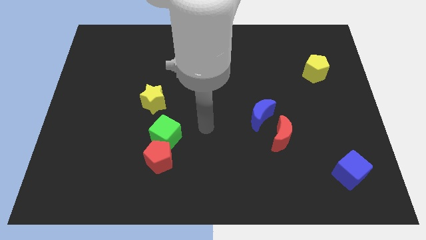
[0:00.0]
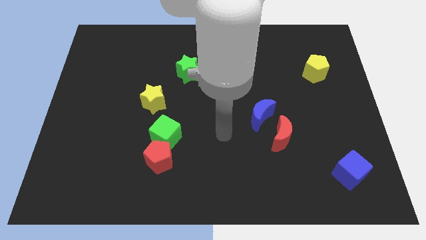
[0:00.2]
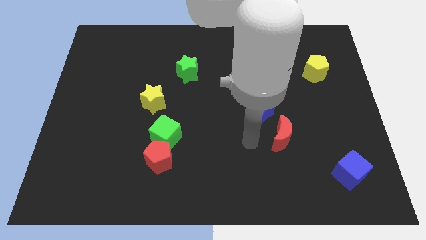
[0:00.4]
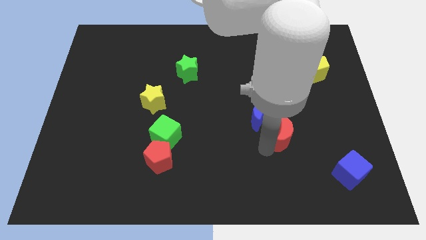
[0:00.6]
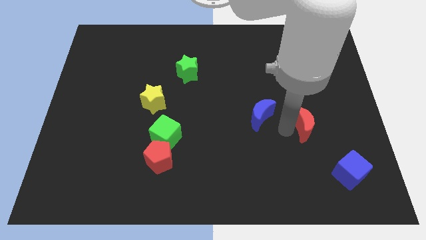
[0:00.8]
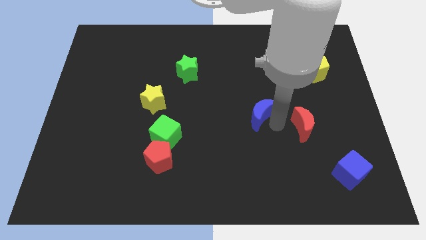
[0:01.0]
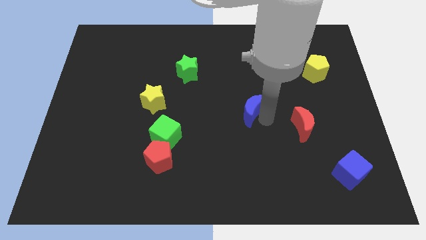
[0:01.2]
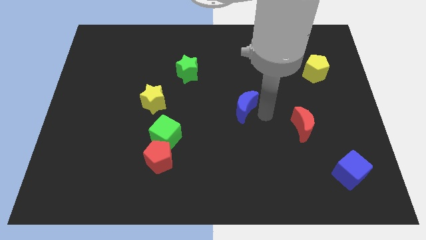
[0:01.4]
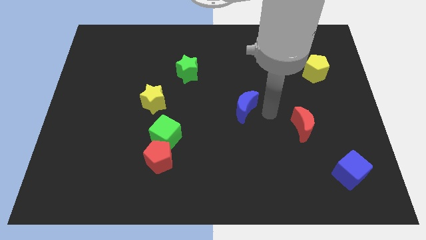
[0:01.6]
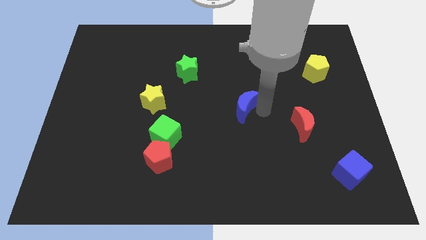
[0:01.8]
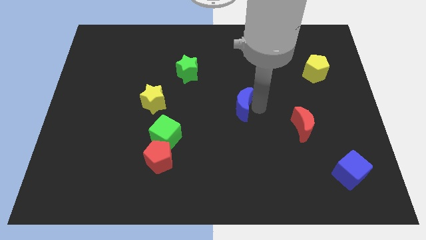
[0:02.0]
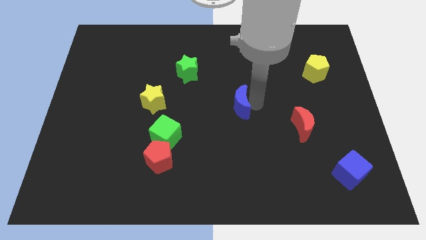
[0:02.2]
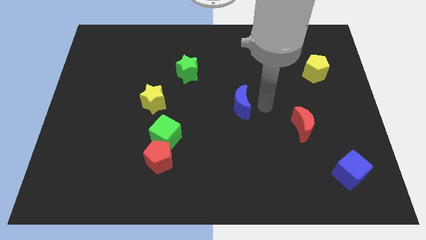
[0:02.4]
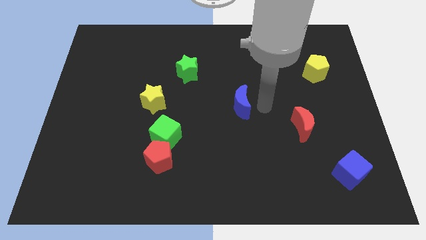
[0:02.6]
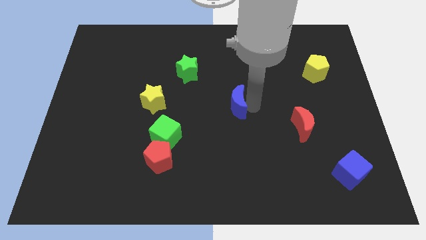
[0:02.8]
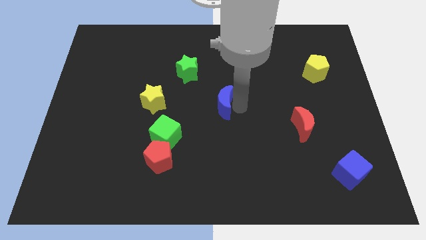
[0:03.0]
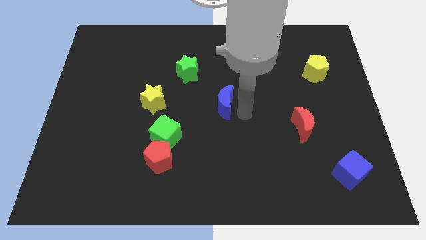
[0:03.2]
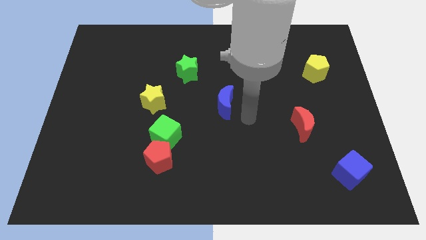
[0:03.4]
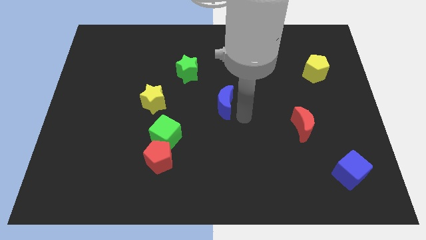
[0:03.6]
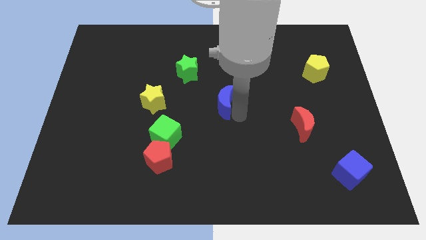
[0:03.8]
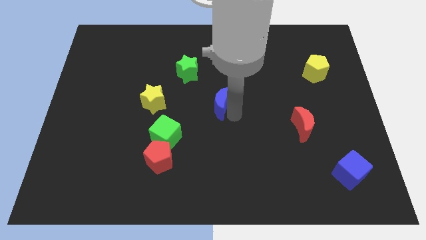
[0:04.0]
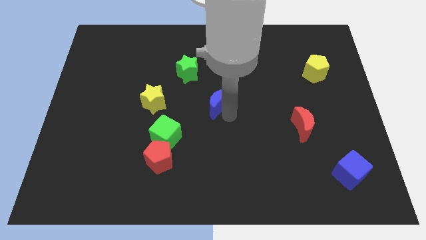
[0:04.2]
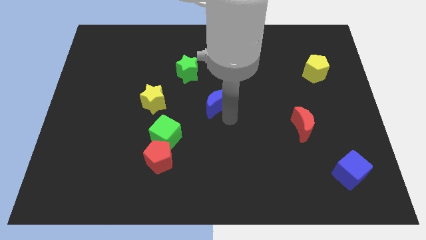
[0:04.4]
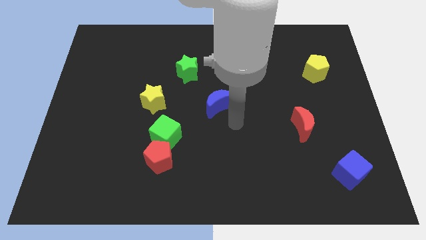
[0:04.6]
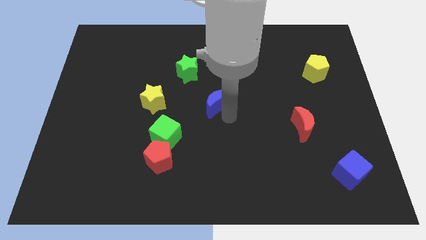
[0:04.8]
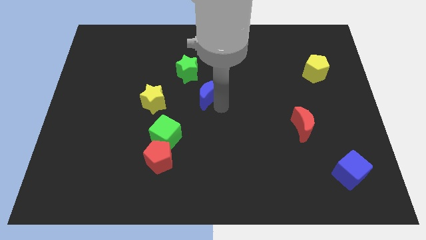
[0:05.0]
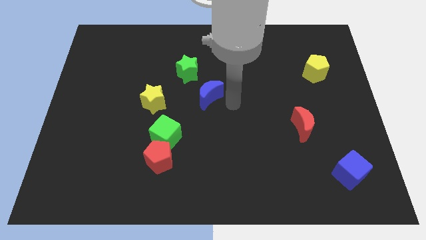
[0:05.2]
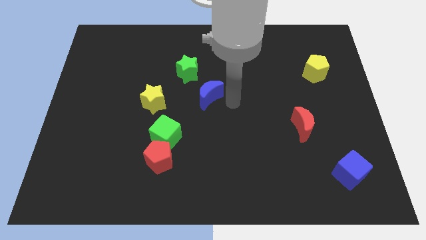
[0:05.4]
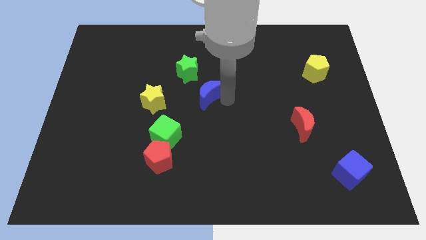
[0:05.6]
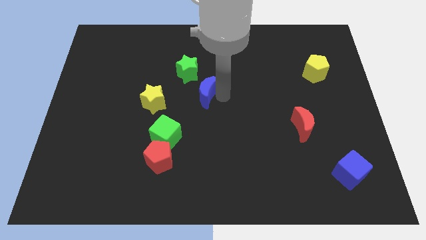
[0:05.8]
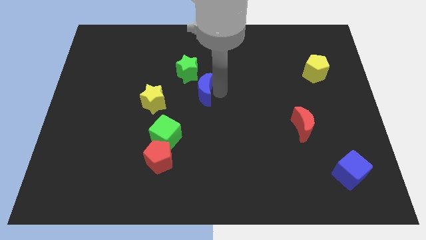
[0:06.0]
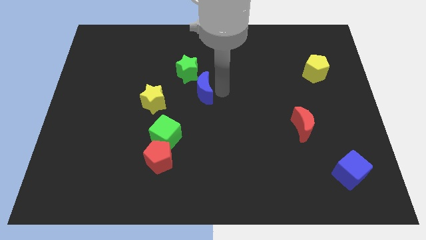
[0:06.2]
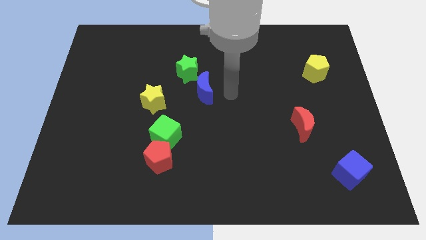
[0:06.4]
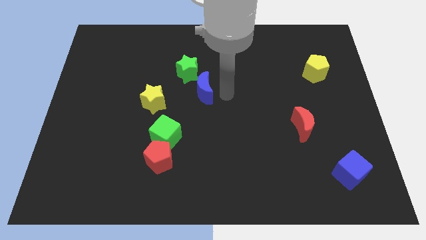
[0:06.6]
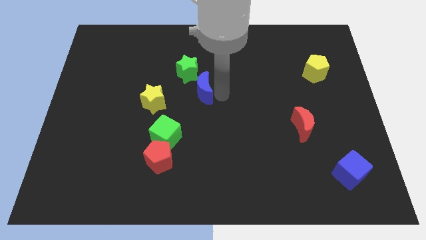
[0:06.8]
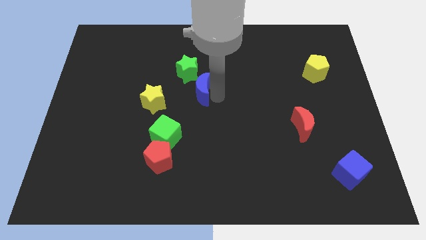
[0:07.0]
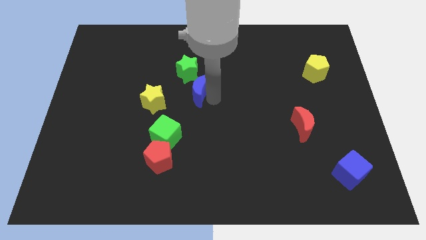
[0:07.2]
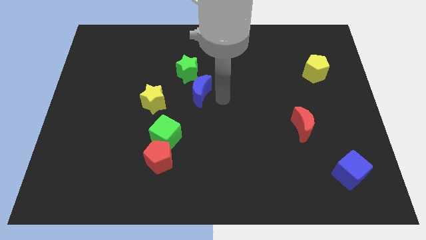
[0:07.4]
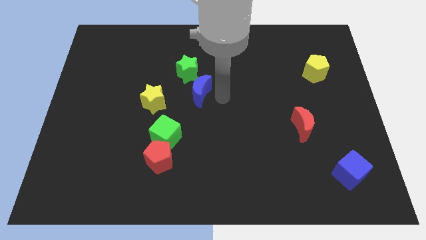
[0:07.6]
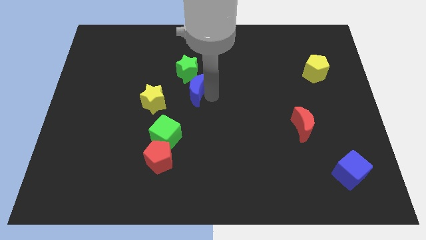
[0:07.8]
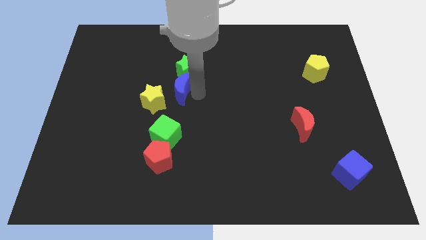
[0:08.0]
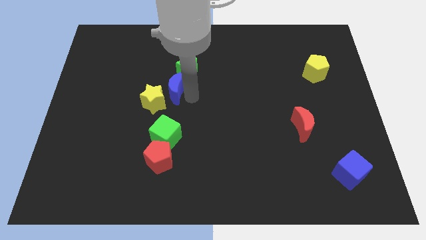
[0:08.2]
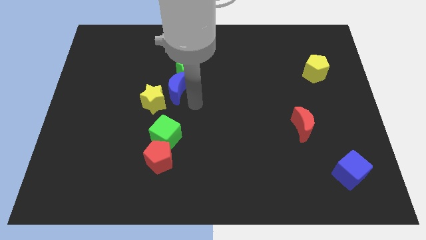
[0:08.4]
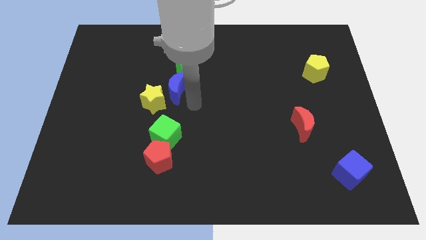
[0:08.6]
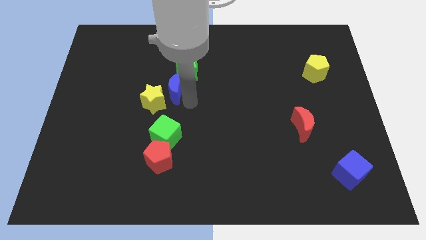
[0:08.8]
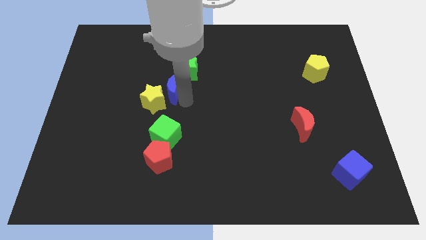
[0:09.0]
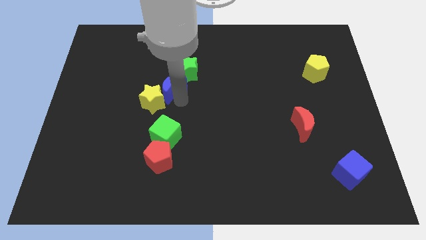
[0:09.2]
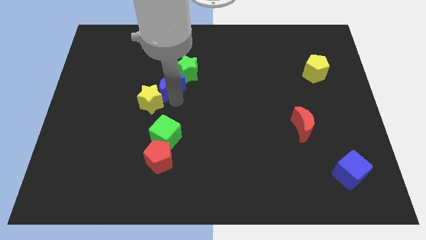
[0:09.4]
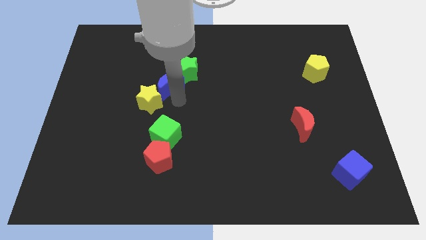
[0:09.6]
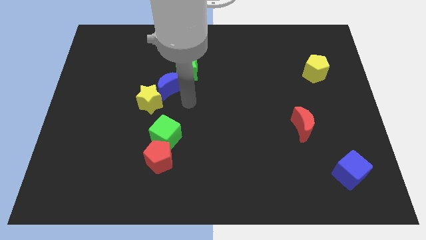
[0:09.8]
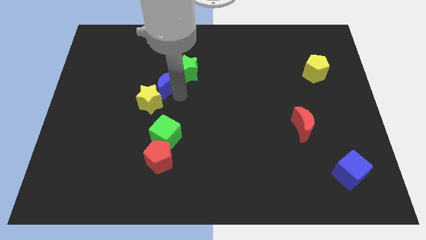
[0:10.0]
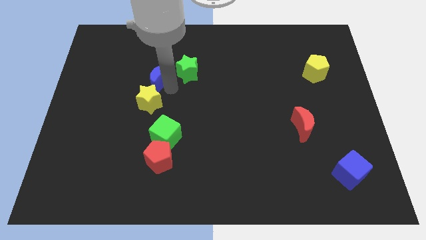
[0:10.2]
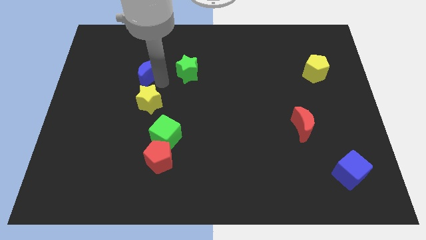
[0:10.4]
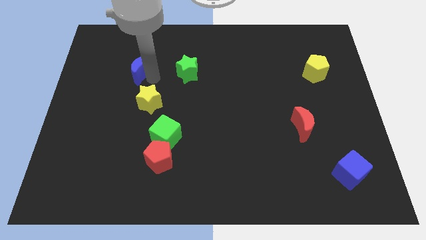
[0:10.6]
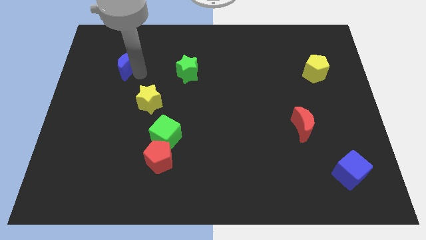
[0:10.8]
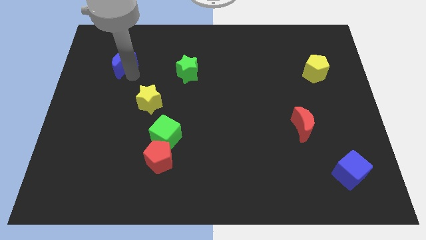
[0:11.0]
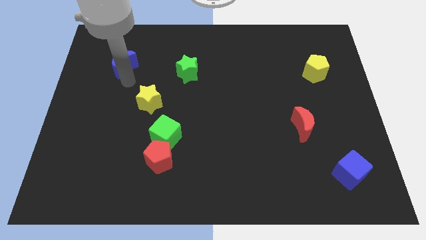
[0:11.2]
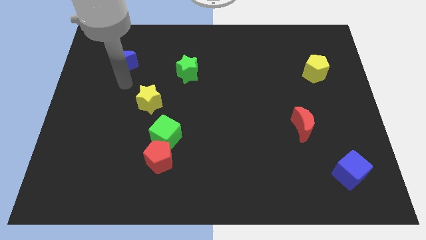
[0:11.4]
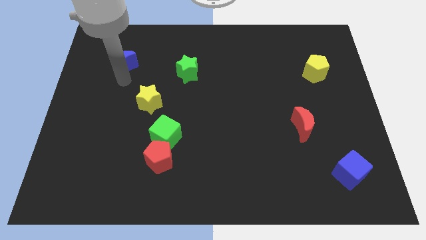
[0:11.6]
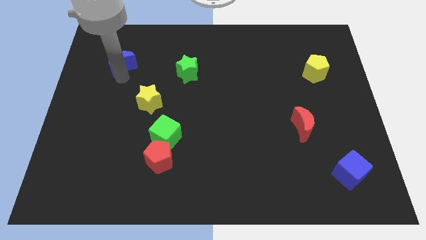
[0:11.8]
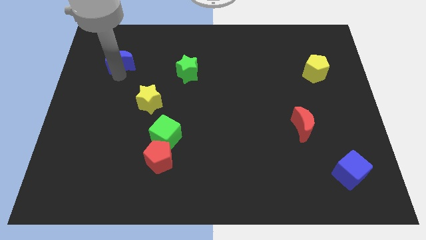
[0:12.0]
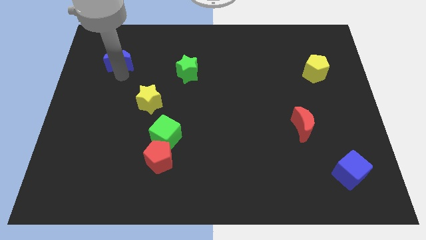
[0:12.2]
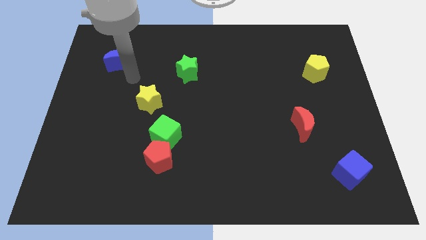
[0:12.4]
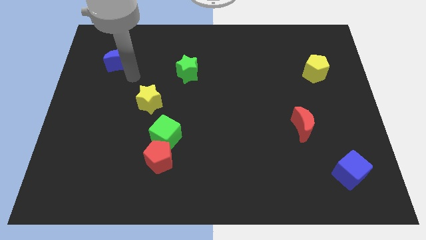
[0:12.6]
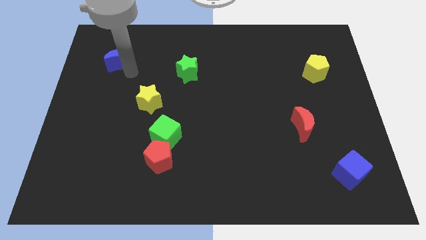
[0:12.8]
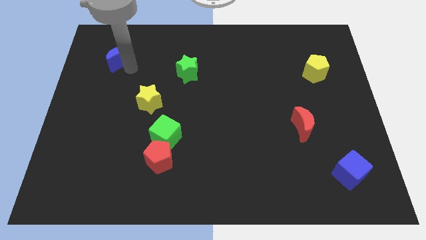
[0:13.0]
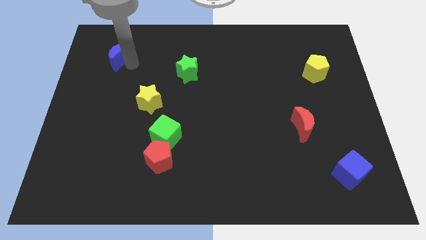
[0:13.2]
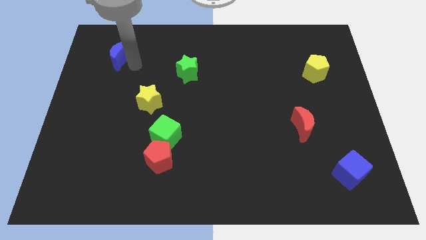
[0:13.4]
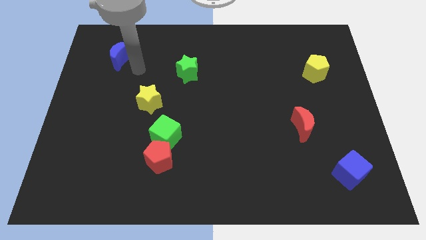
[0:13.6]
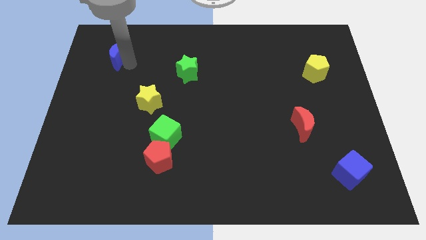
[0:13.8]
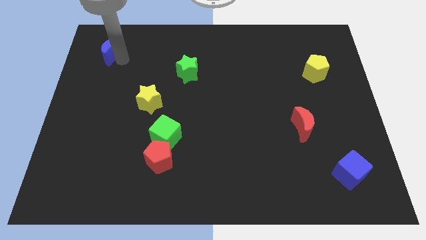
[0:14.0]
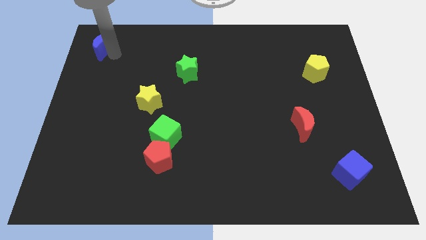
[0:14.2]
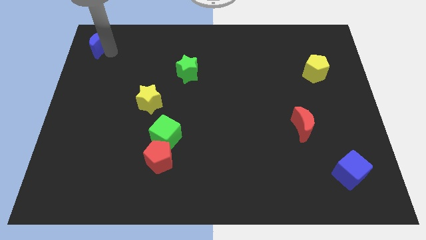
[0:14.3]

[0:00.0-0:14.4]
put the blue moon to the top left corner
